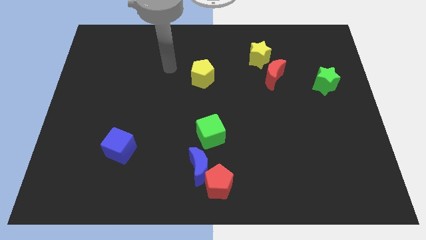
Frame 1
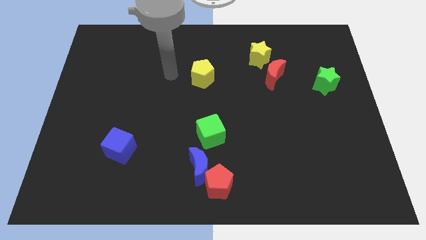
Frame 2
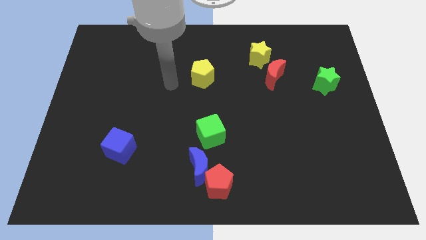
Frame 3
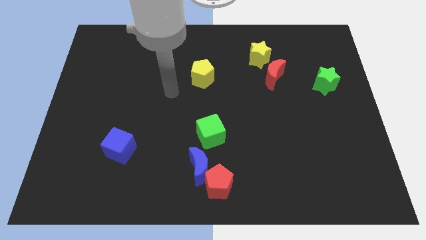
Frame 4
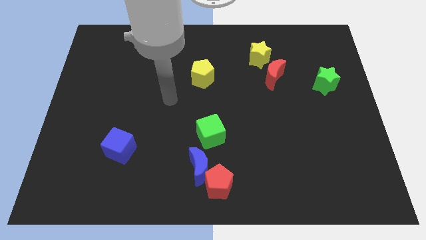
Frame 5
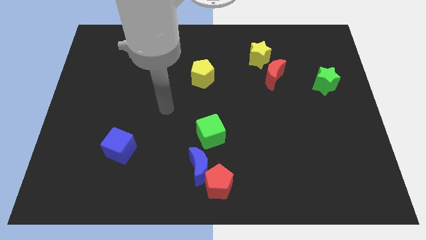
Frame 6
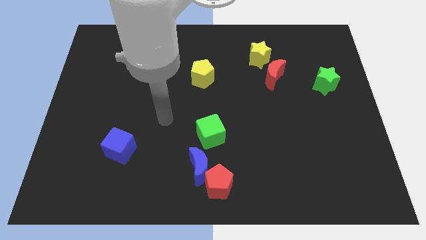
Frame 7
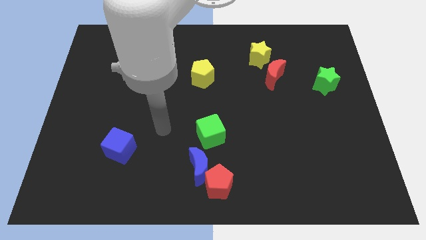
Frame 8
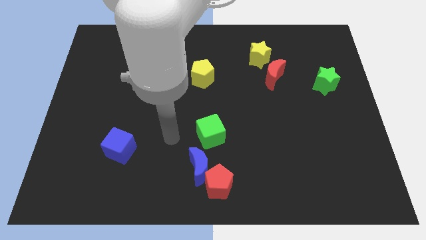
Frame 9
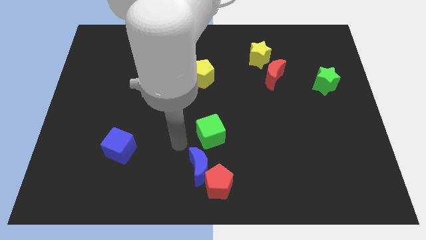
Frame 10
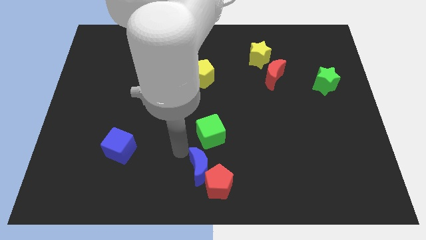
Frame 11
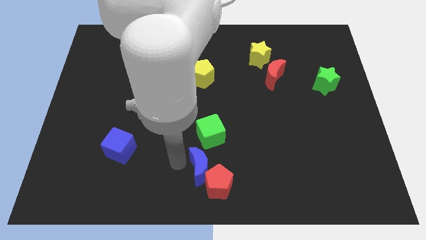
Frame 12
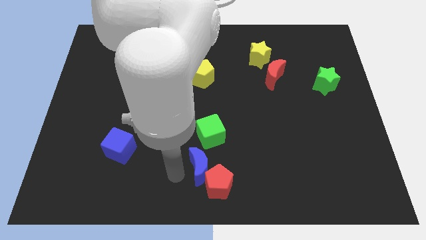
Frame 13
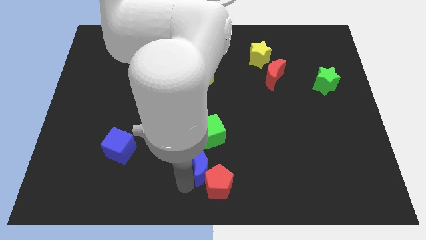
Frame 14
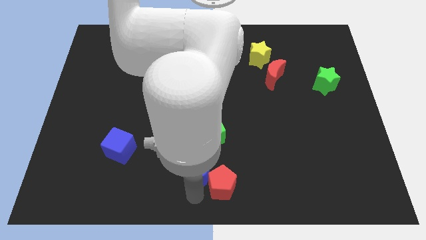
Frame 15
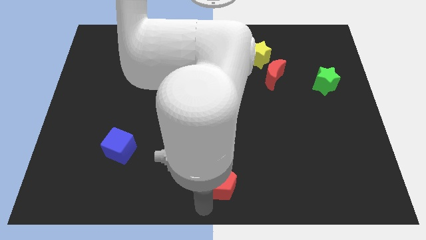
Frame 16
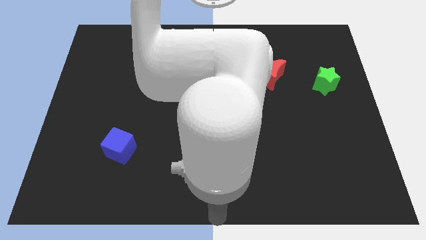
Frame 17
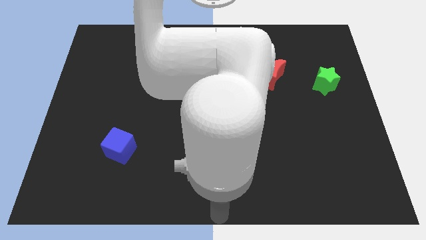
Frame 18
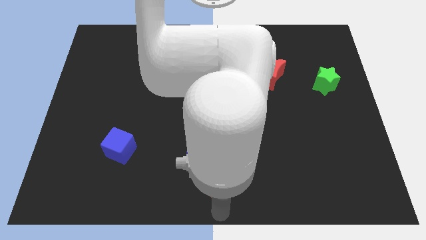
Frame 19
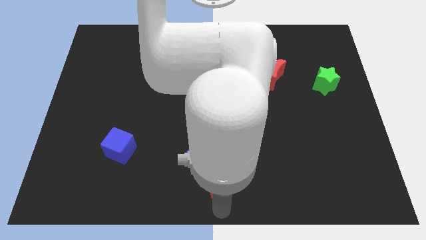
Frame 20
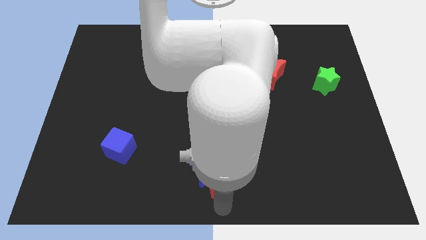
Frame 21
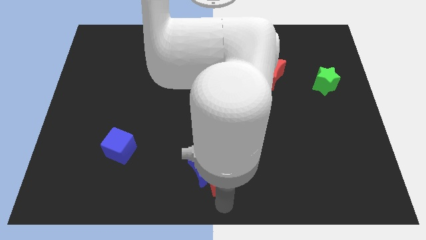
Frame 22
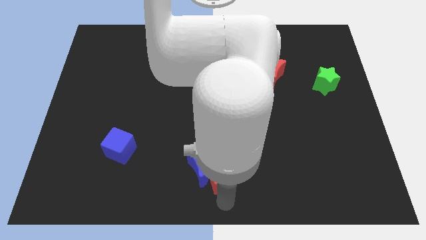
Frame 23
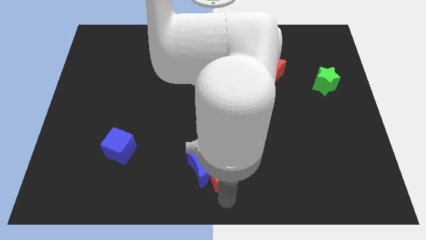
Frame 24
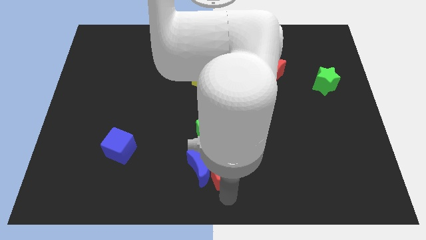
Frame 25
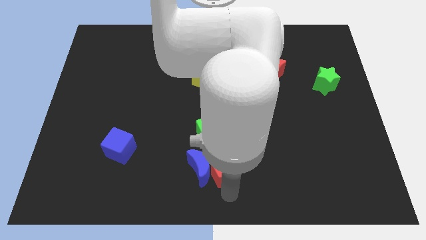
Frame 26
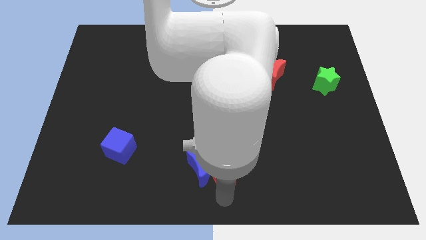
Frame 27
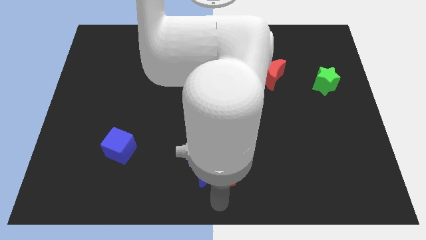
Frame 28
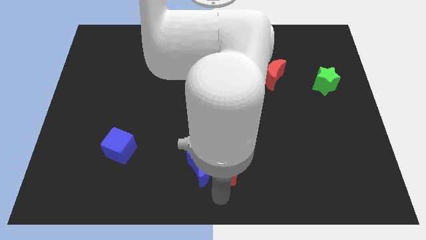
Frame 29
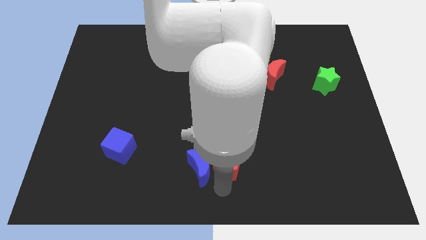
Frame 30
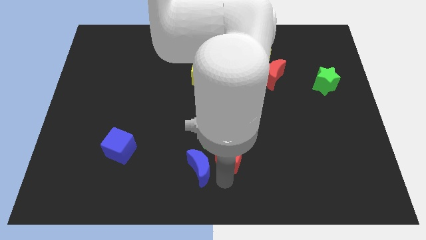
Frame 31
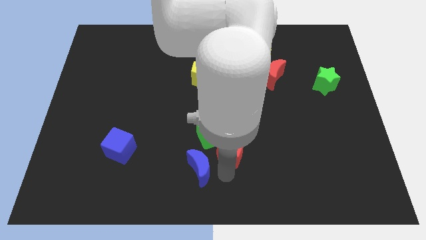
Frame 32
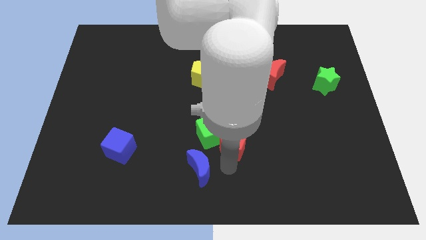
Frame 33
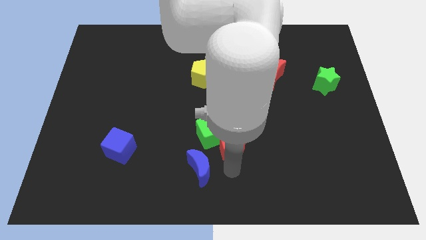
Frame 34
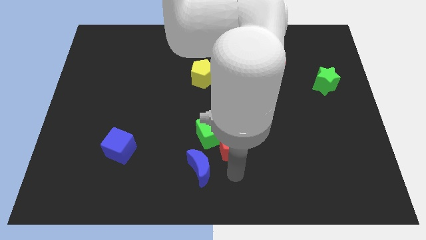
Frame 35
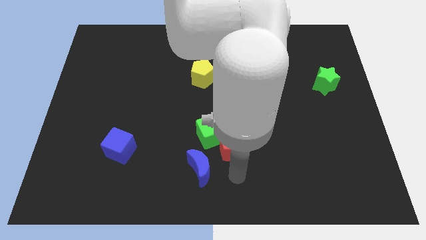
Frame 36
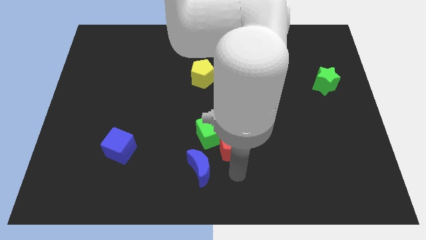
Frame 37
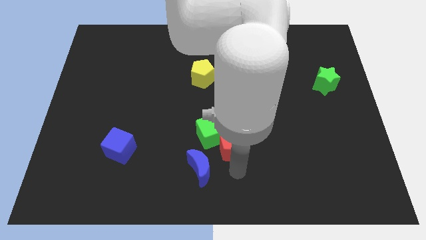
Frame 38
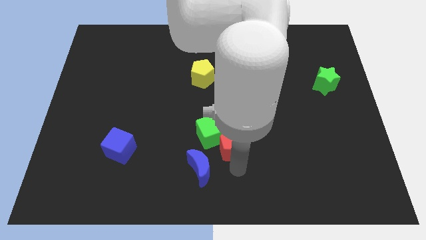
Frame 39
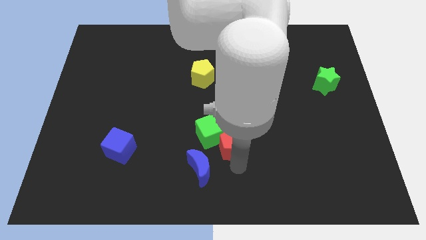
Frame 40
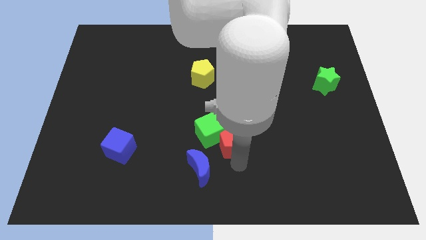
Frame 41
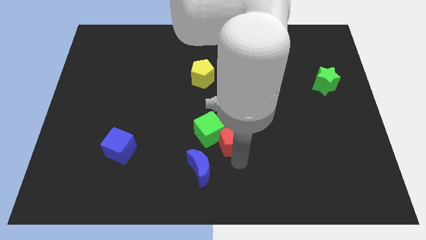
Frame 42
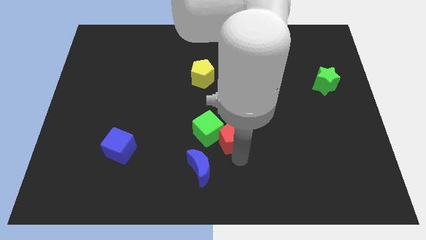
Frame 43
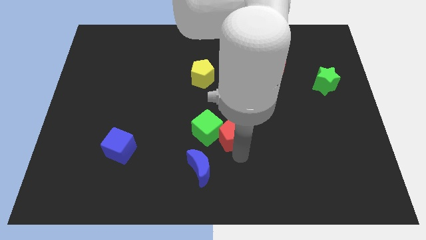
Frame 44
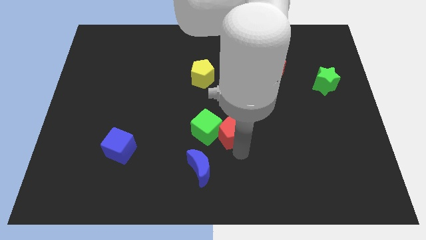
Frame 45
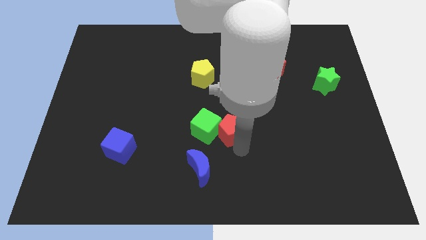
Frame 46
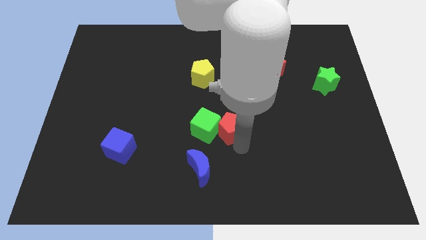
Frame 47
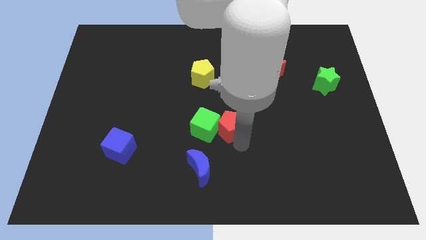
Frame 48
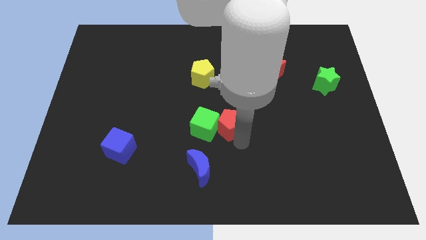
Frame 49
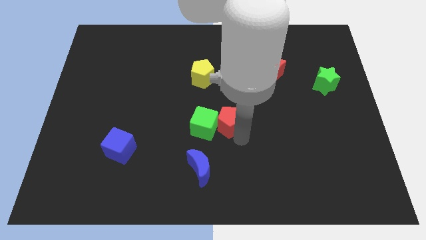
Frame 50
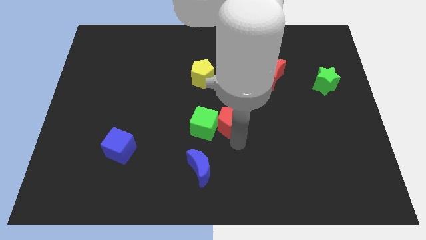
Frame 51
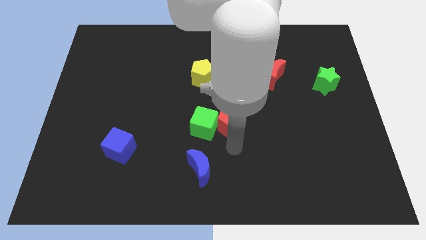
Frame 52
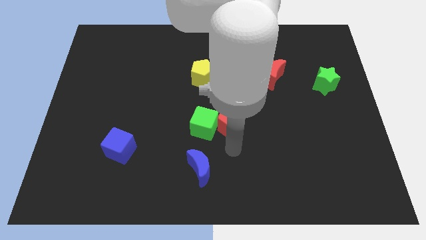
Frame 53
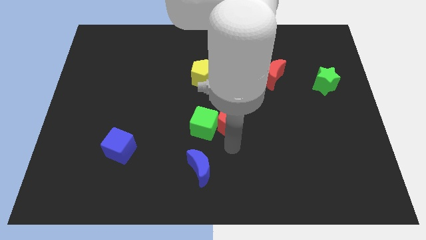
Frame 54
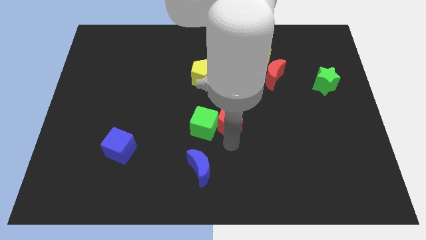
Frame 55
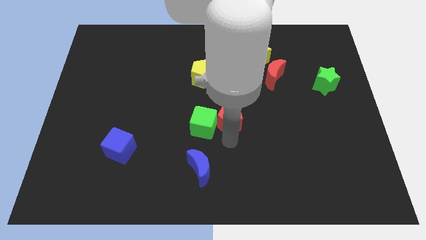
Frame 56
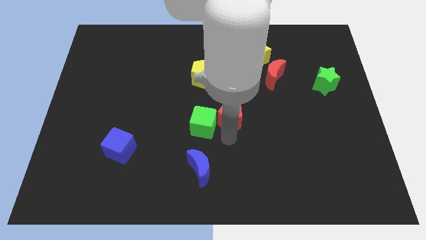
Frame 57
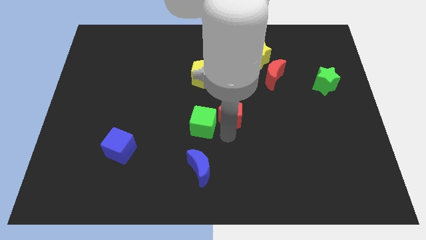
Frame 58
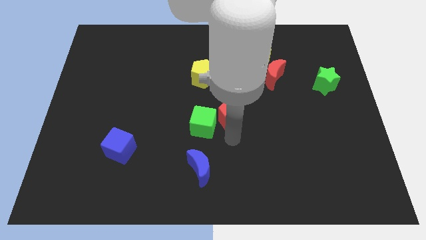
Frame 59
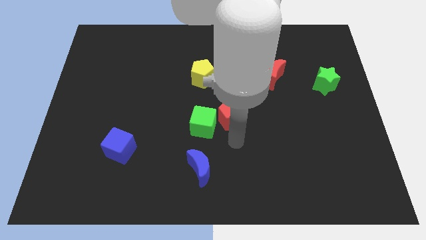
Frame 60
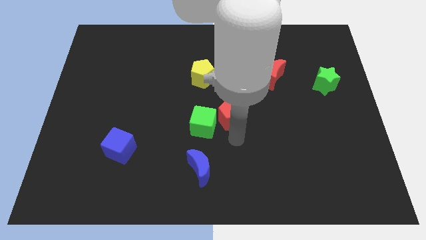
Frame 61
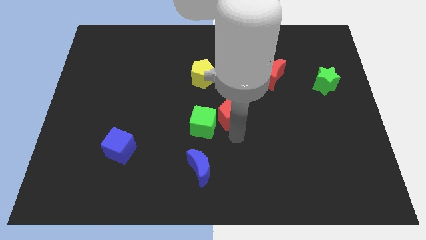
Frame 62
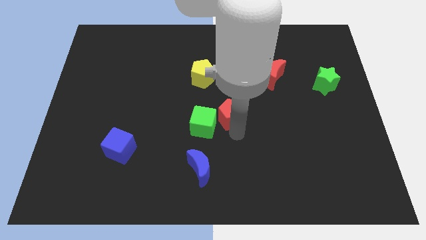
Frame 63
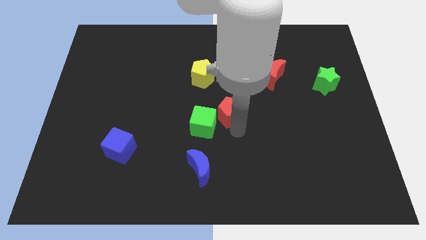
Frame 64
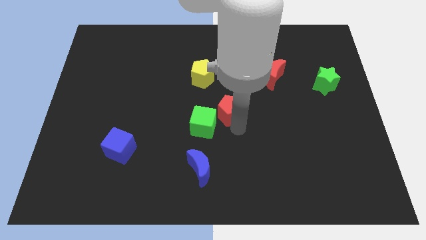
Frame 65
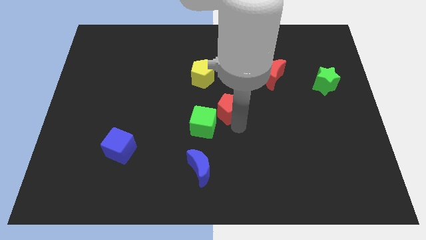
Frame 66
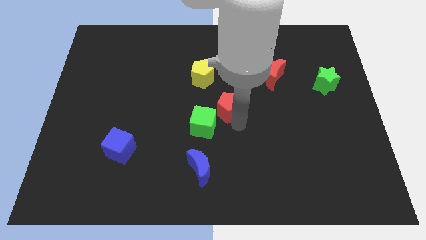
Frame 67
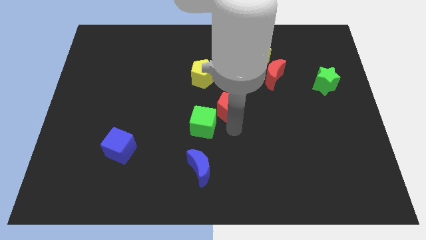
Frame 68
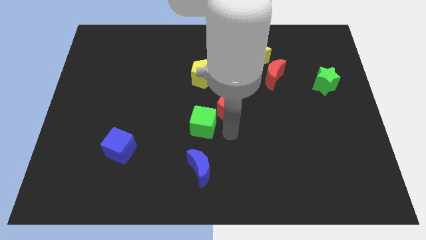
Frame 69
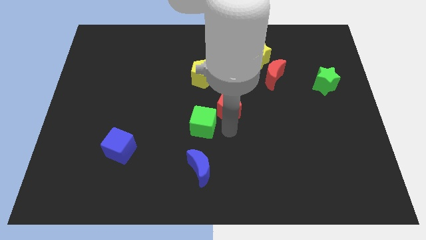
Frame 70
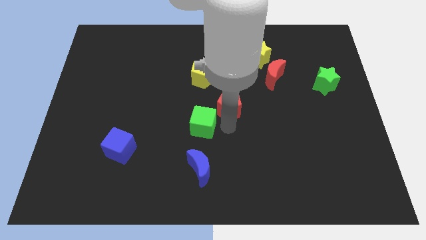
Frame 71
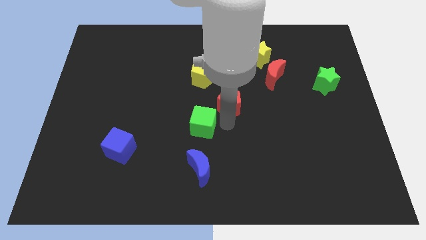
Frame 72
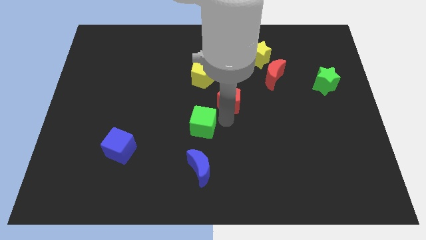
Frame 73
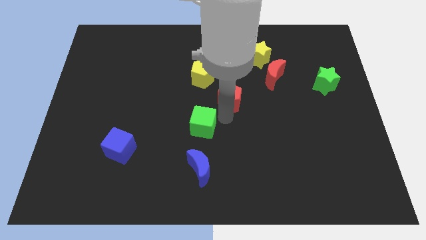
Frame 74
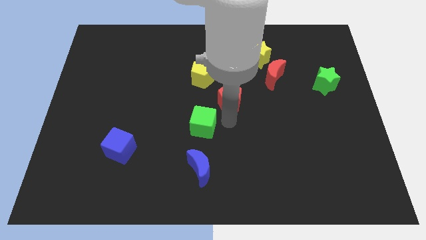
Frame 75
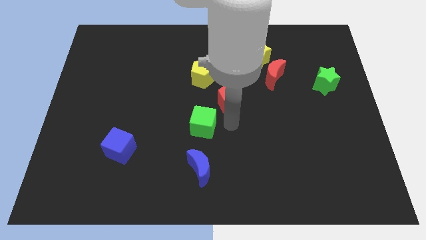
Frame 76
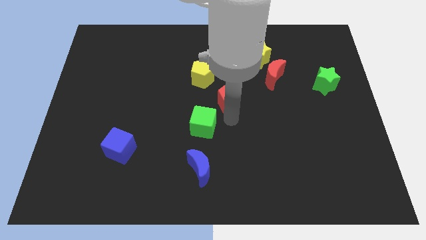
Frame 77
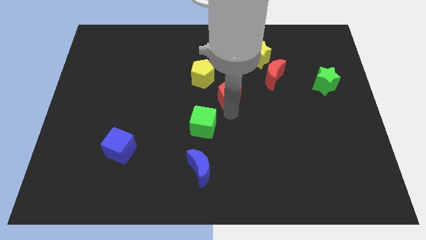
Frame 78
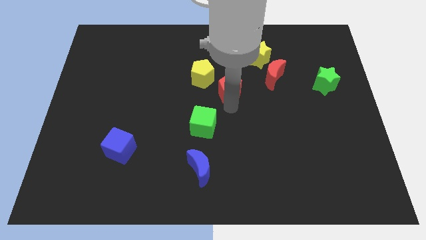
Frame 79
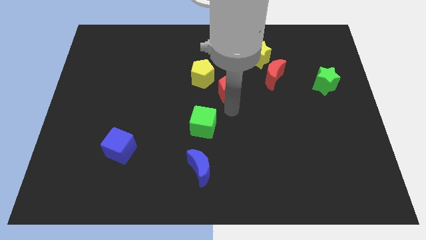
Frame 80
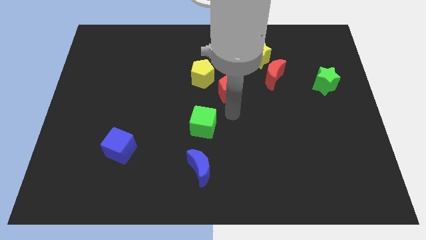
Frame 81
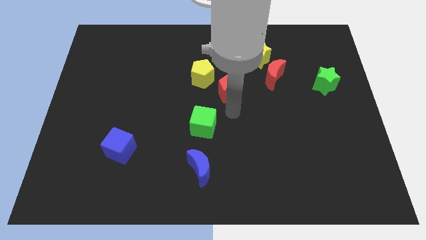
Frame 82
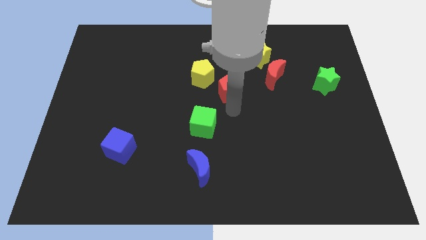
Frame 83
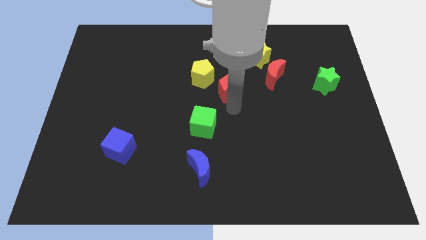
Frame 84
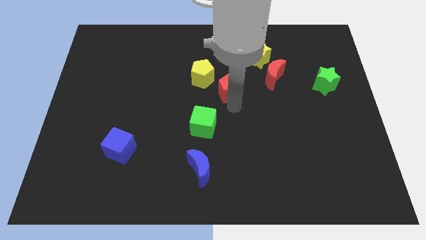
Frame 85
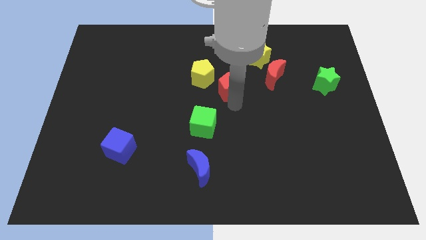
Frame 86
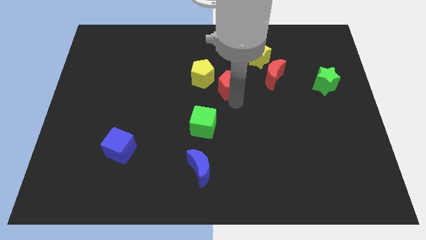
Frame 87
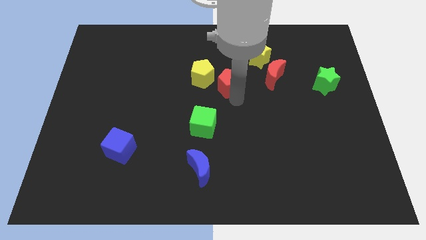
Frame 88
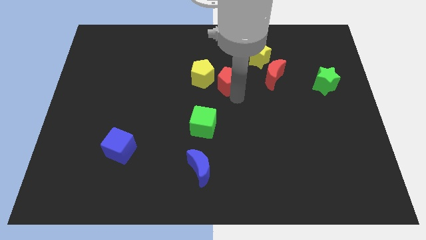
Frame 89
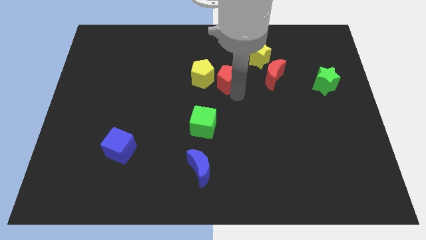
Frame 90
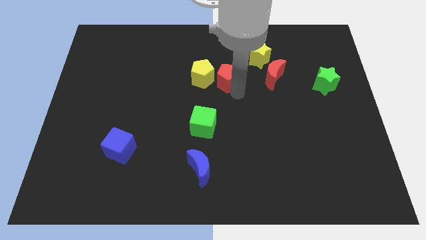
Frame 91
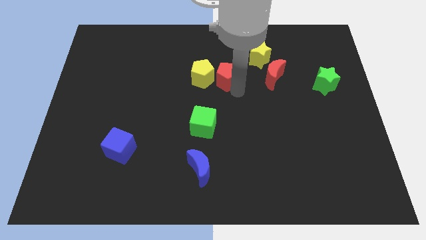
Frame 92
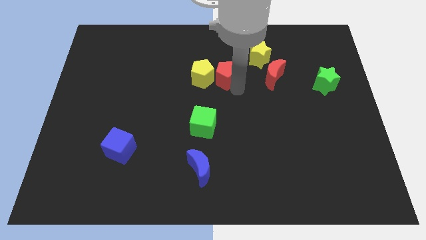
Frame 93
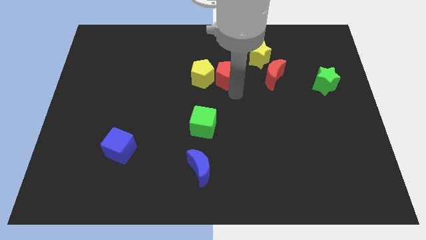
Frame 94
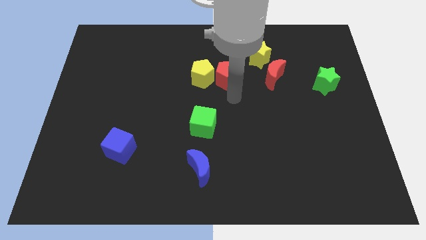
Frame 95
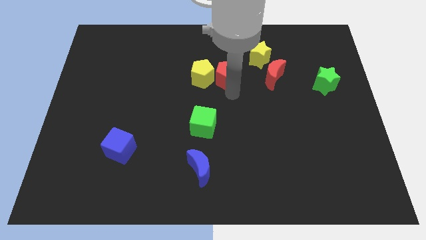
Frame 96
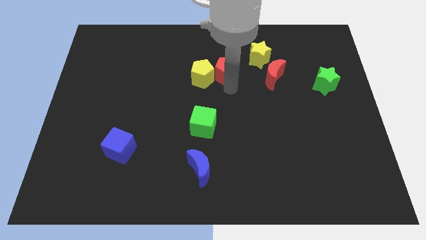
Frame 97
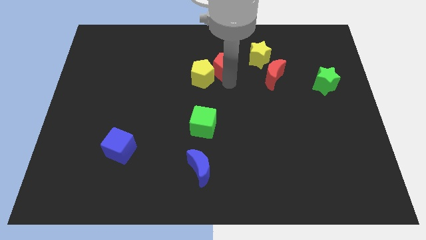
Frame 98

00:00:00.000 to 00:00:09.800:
push the red pentagon left of the yellow star
